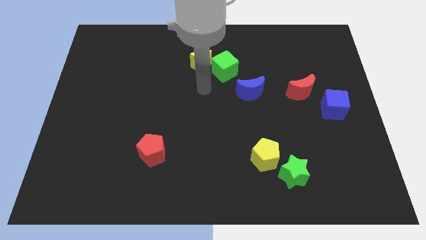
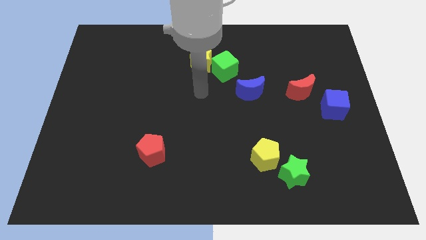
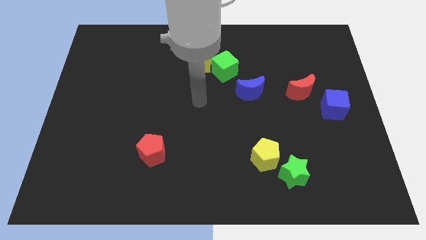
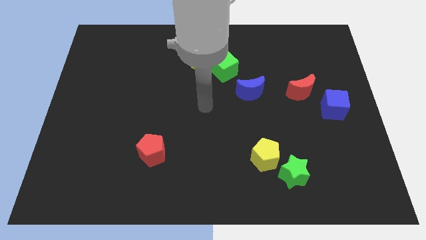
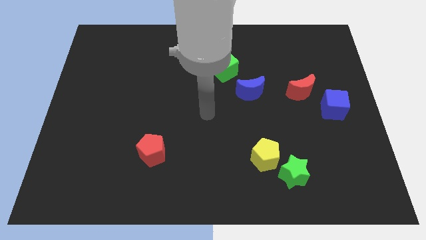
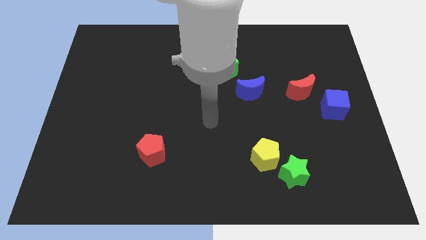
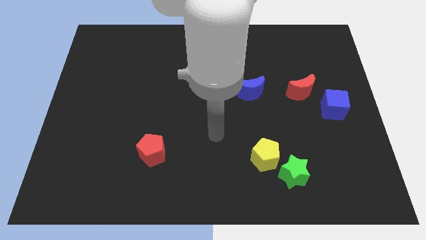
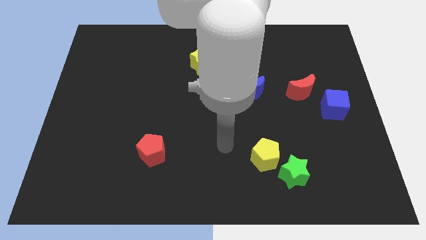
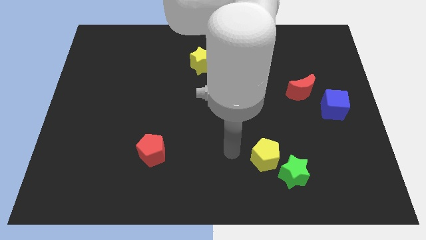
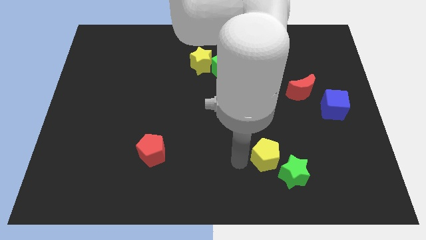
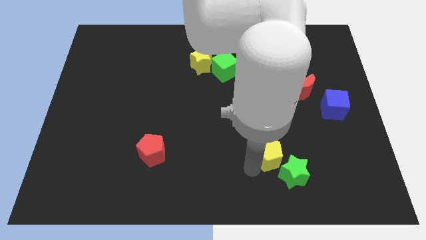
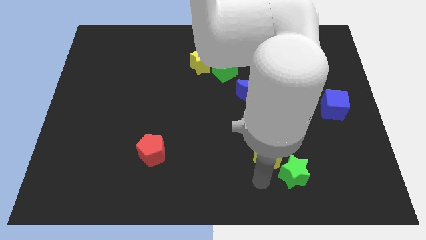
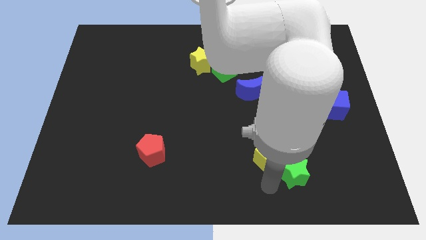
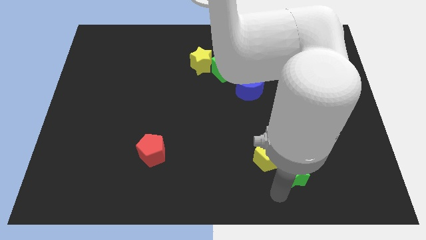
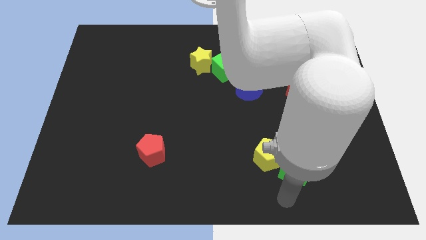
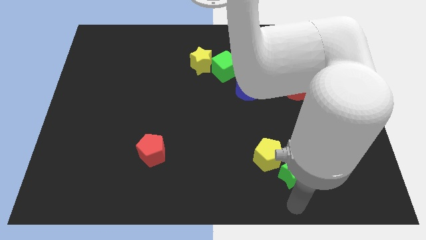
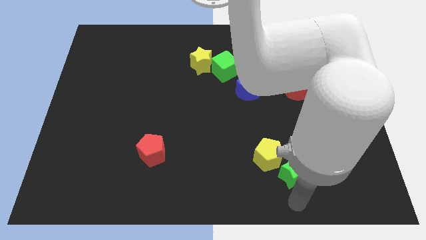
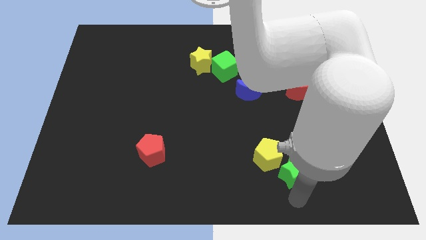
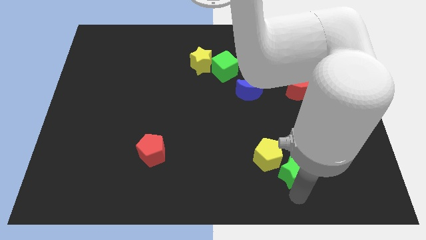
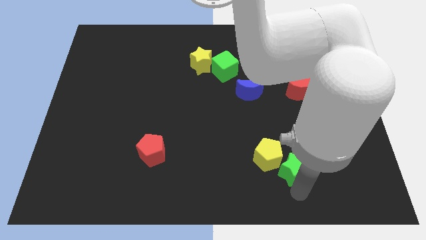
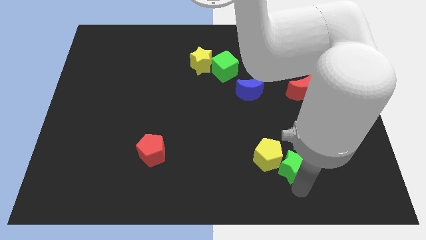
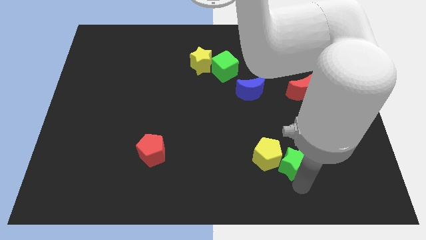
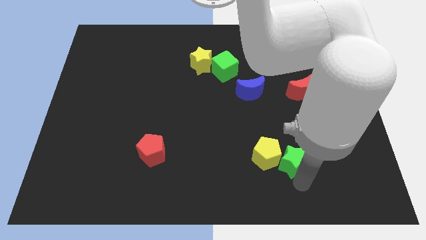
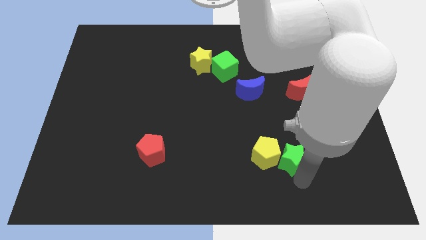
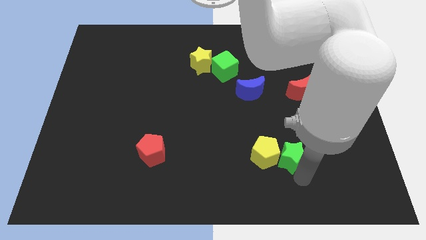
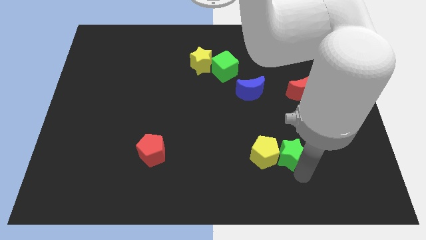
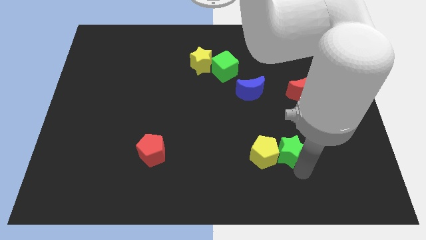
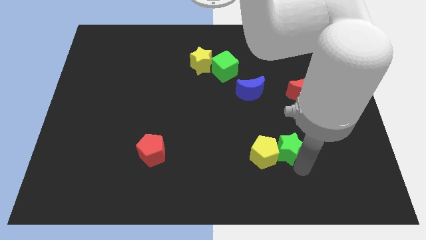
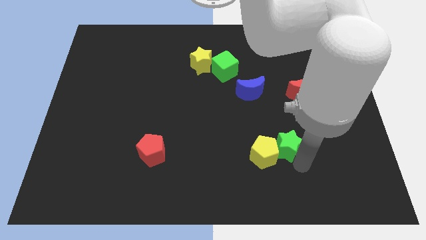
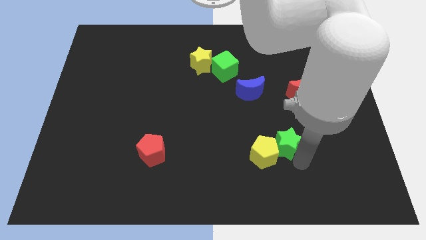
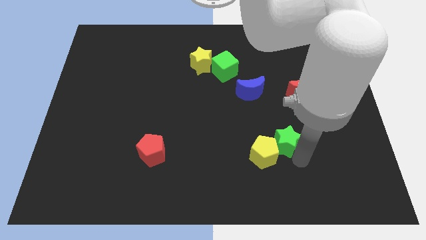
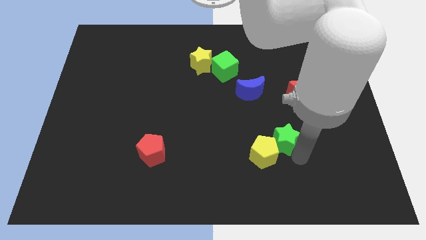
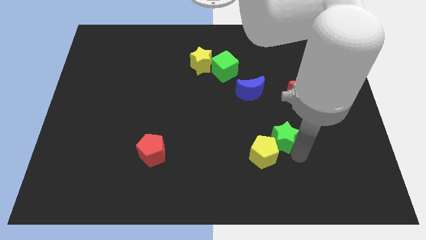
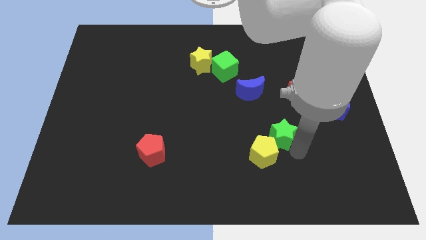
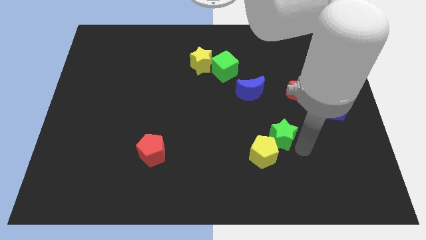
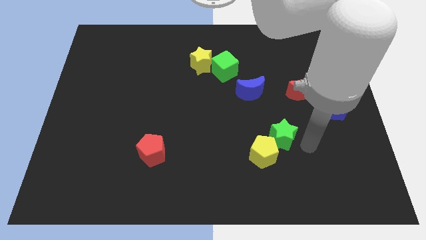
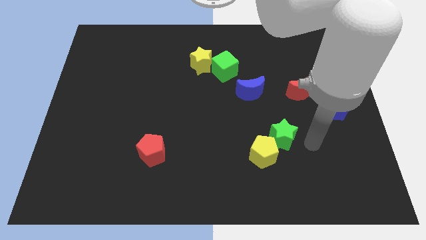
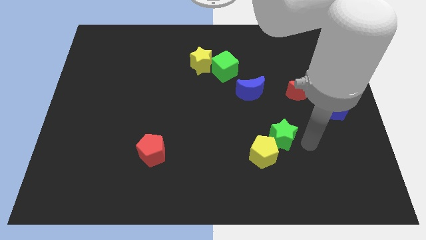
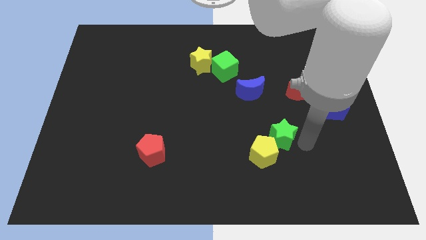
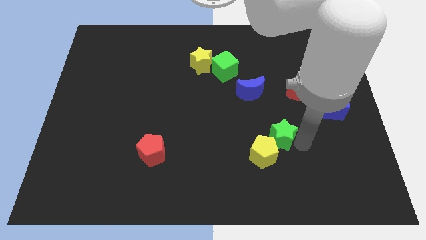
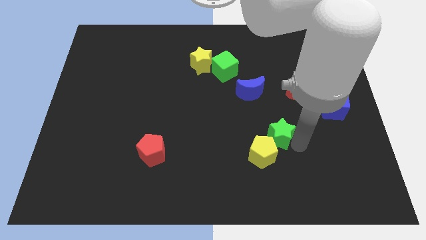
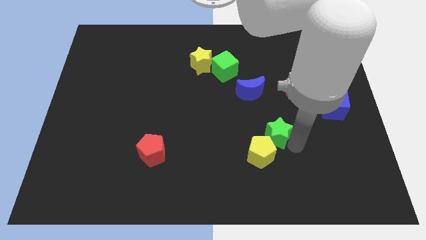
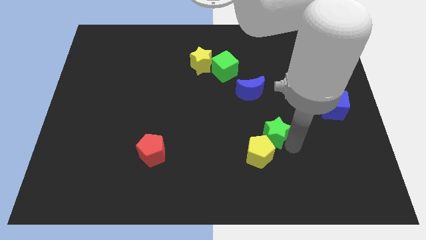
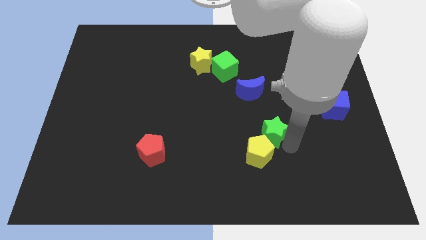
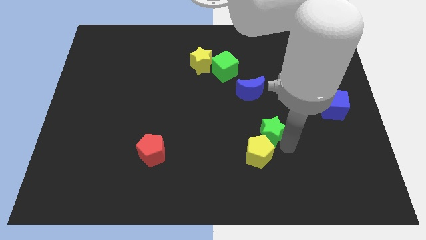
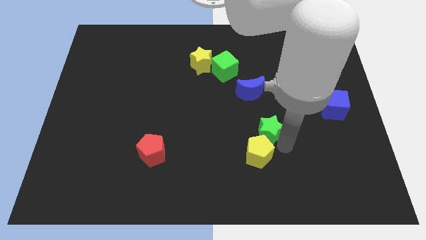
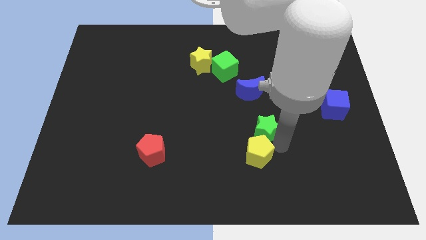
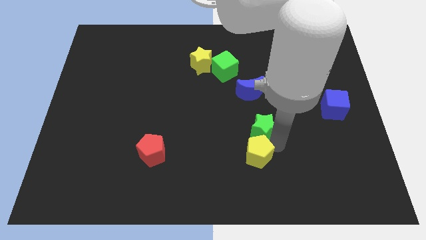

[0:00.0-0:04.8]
push the green star to the top left of the yellow pentagon

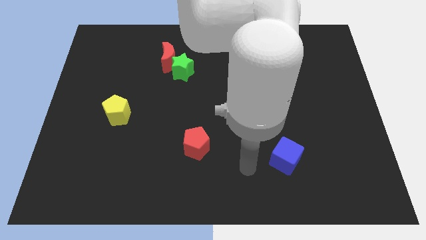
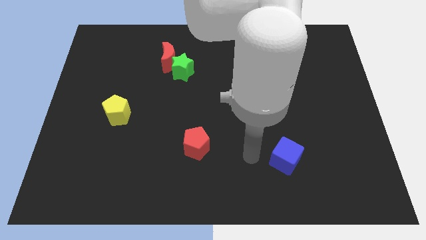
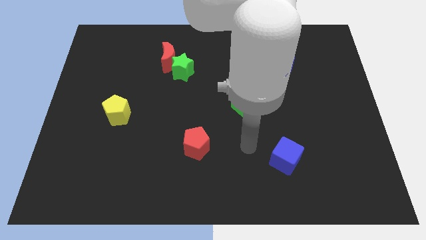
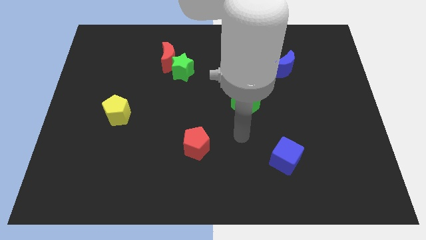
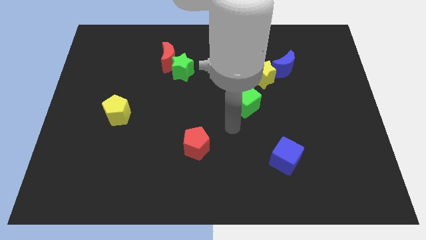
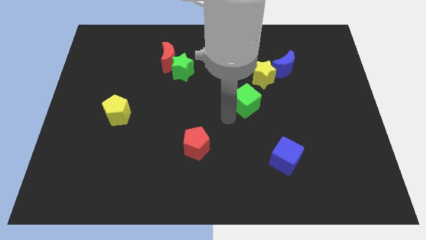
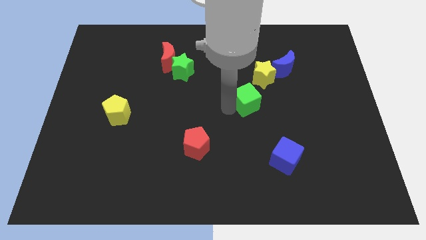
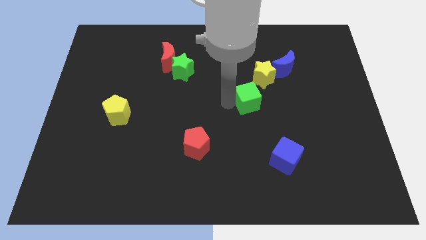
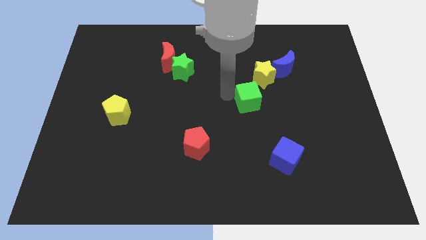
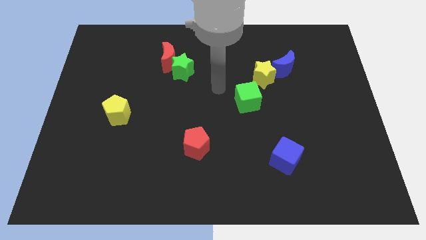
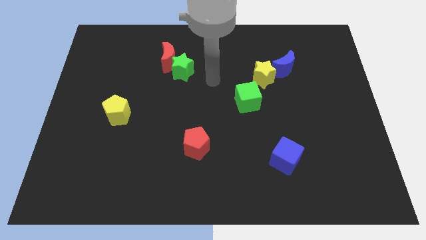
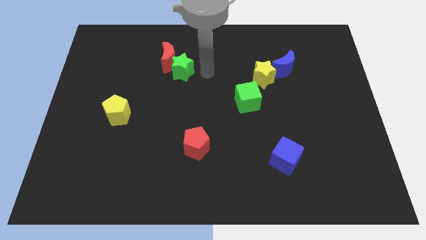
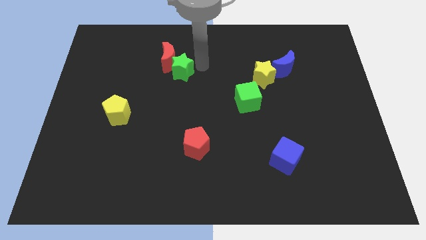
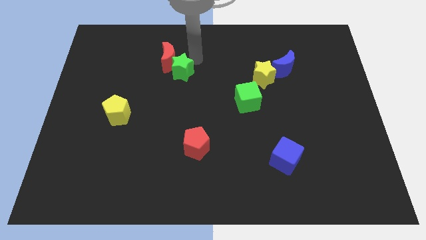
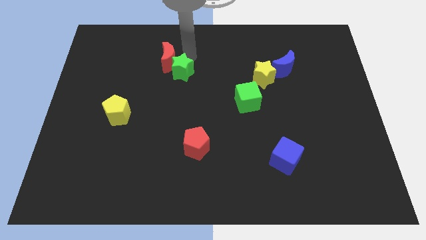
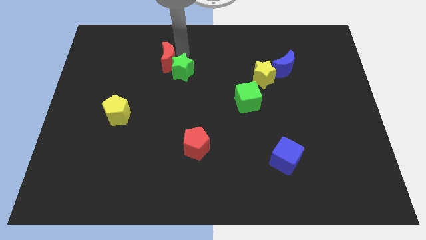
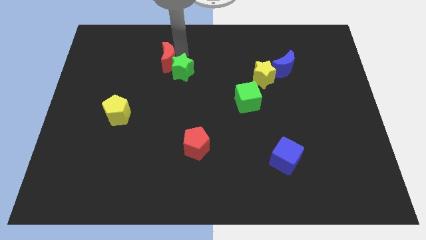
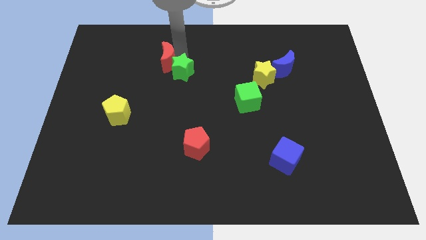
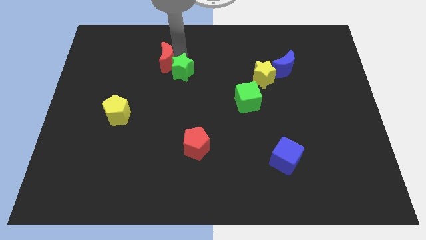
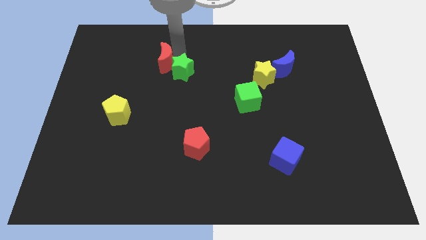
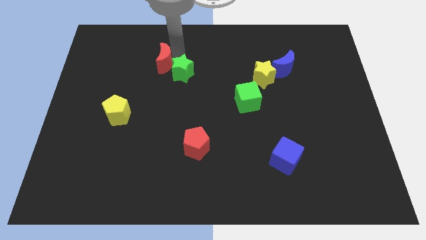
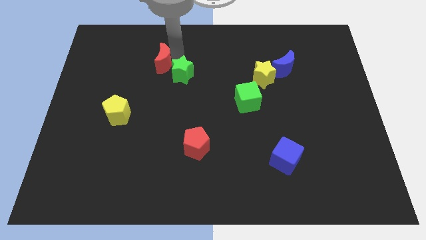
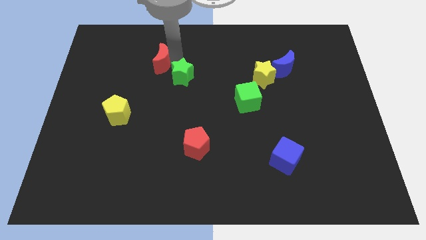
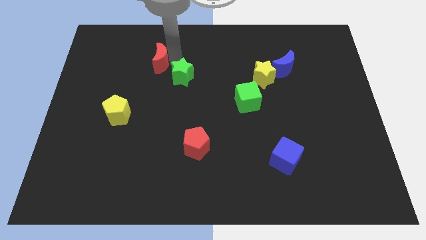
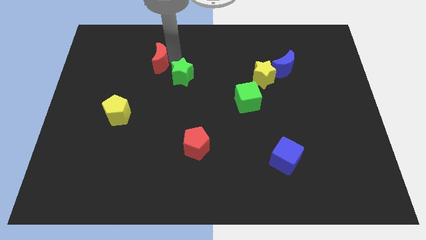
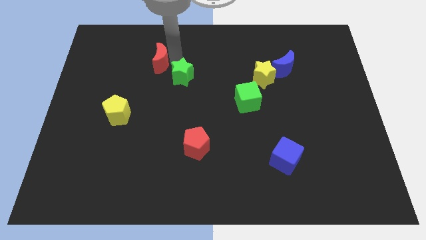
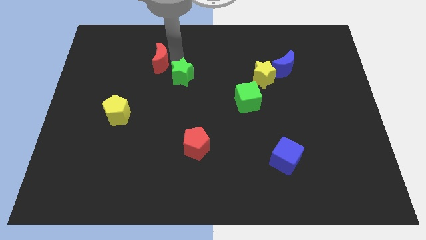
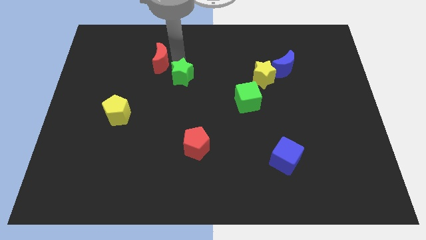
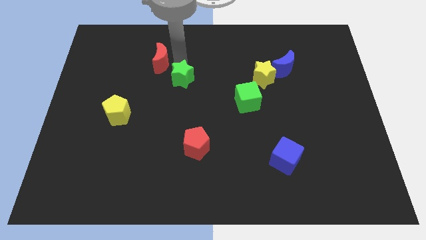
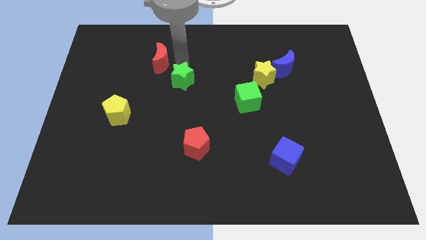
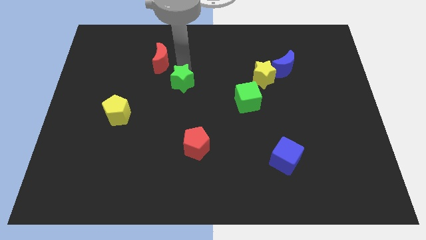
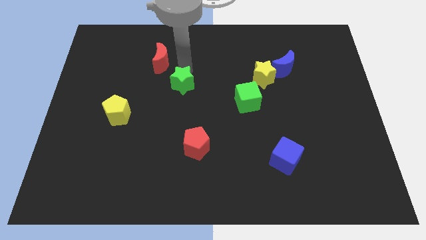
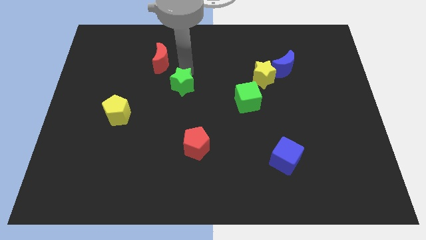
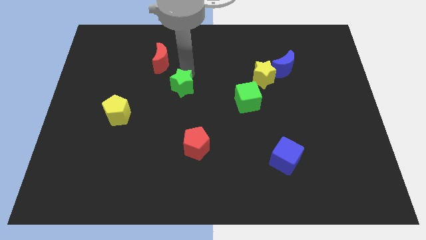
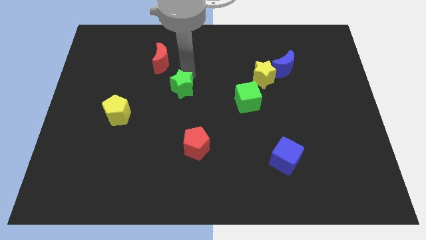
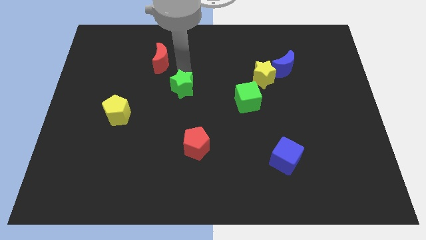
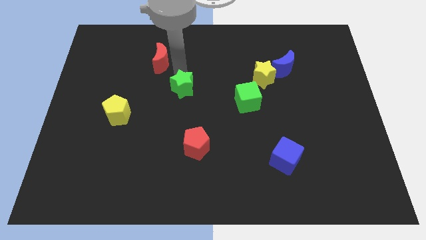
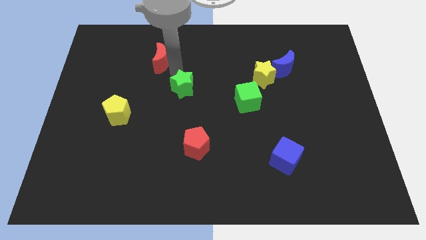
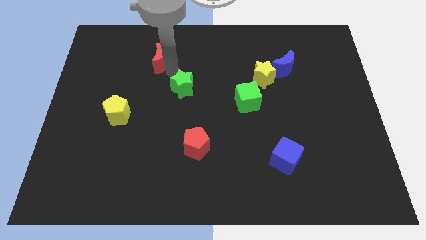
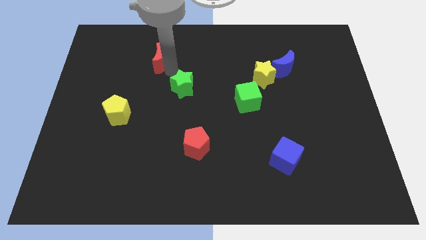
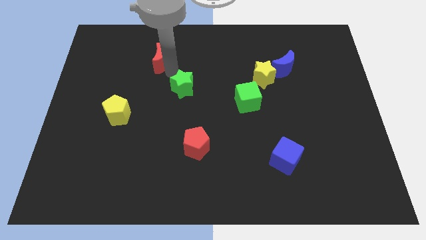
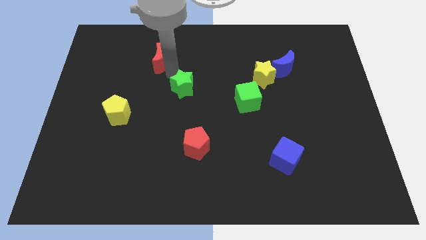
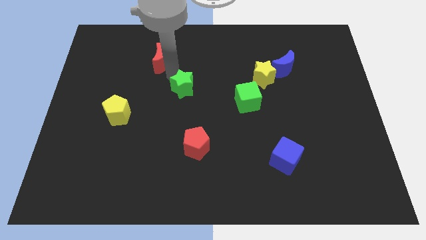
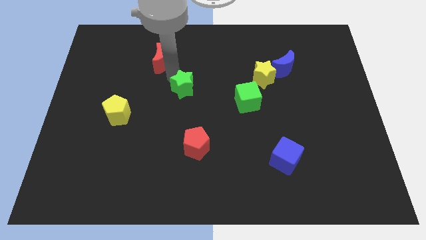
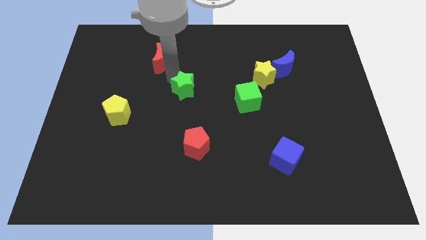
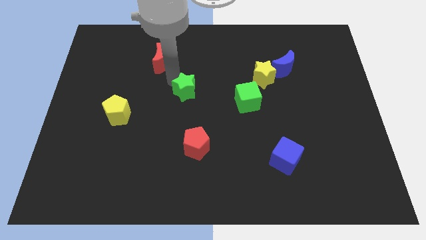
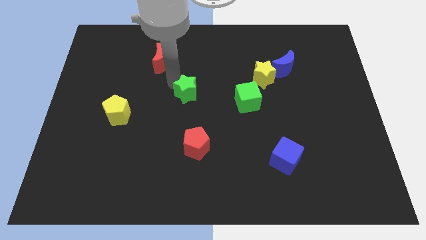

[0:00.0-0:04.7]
move the green star to the top of the red pentagon
